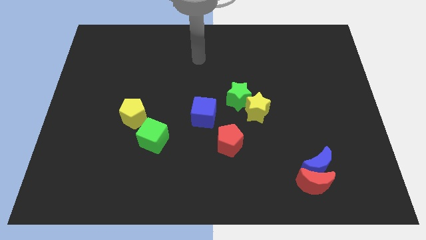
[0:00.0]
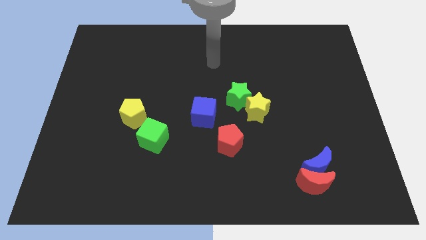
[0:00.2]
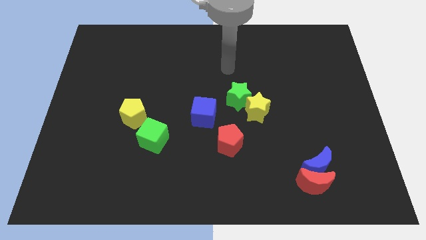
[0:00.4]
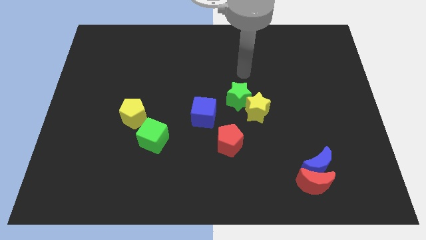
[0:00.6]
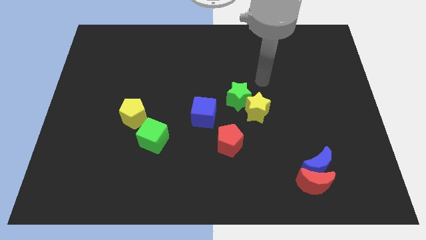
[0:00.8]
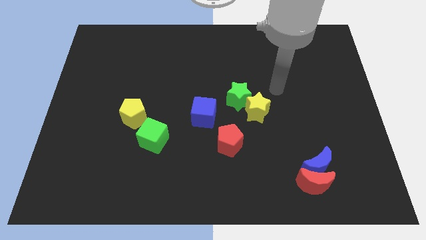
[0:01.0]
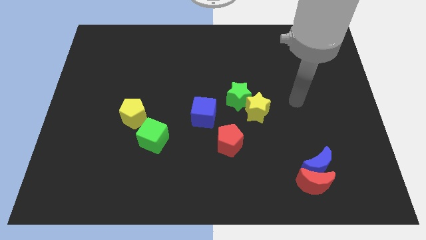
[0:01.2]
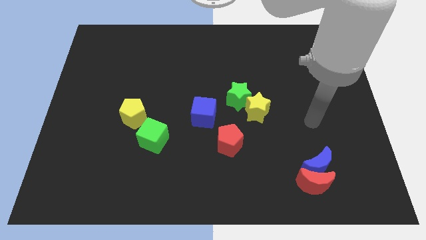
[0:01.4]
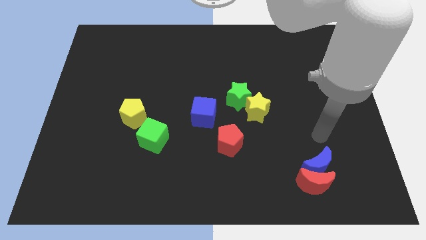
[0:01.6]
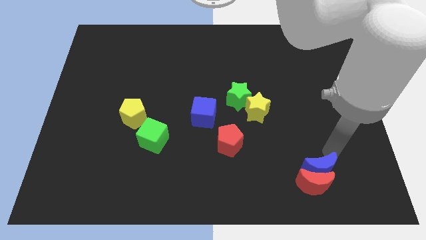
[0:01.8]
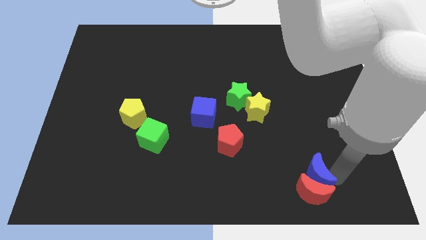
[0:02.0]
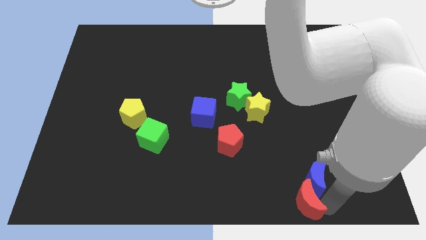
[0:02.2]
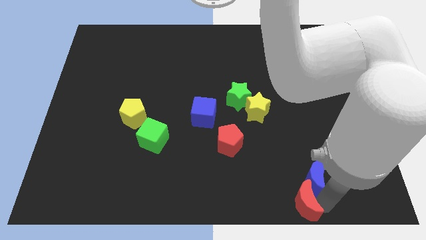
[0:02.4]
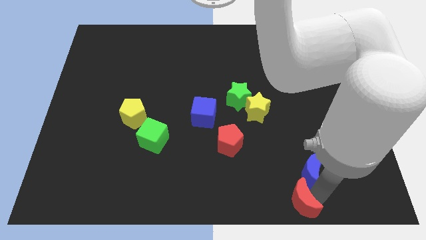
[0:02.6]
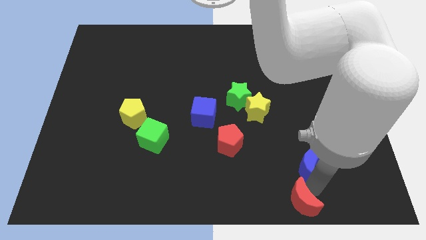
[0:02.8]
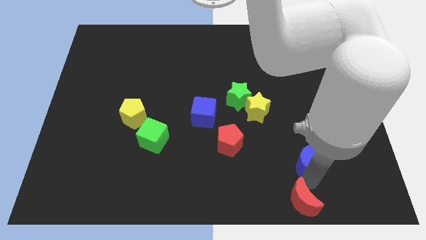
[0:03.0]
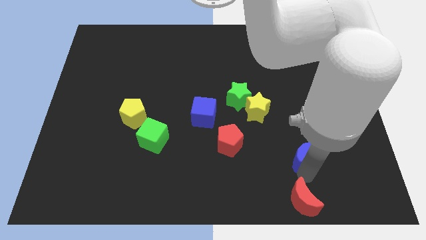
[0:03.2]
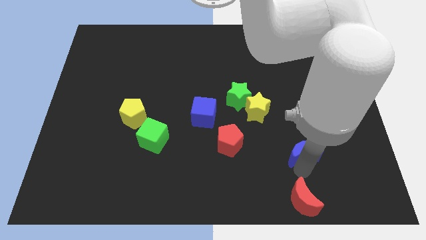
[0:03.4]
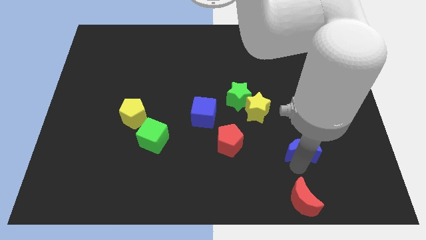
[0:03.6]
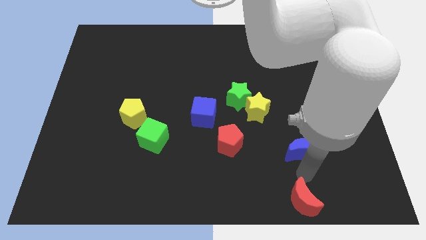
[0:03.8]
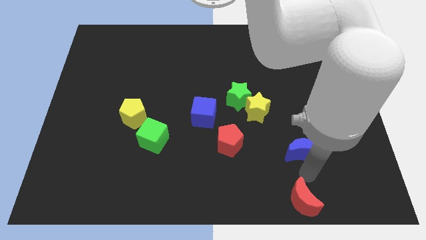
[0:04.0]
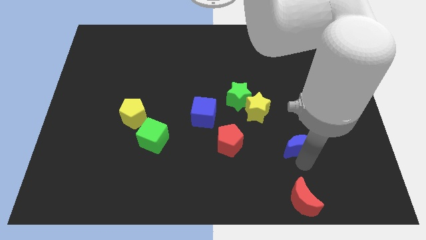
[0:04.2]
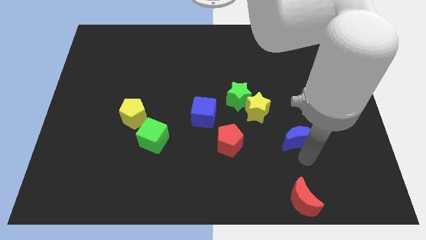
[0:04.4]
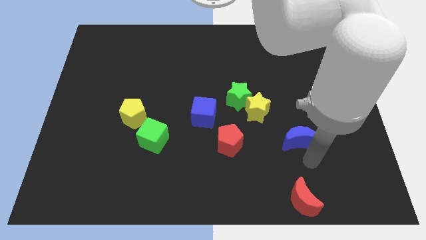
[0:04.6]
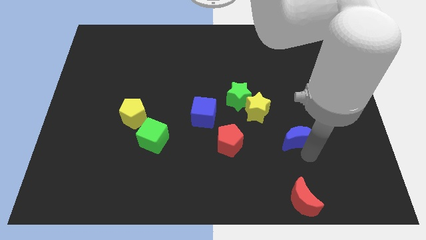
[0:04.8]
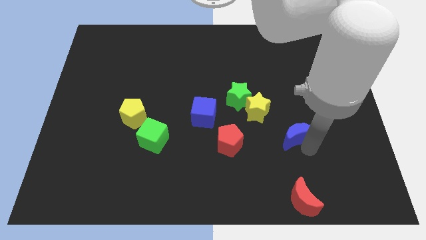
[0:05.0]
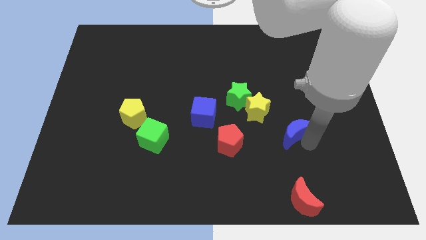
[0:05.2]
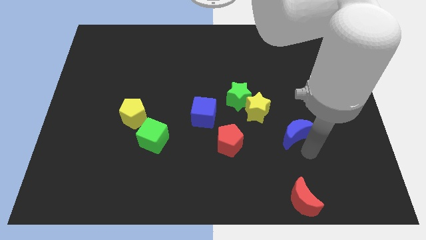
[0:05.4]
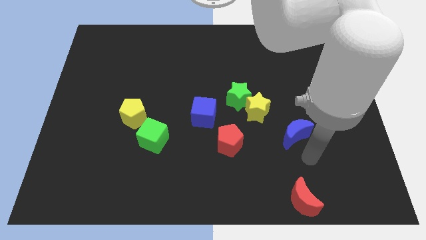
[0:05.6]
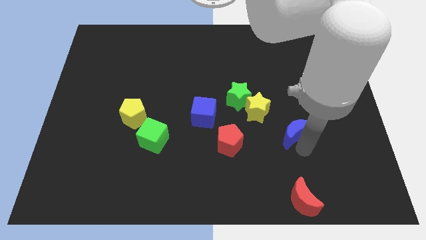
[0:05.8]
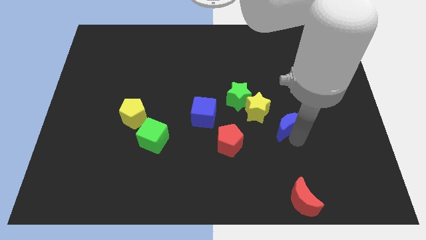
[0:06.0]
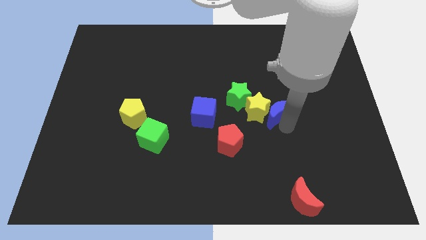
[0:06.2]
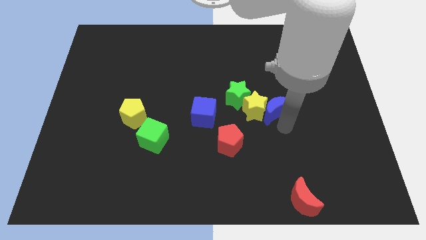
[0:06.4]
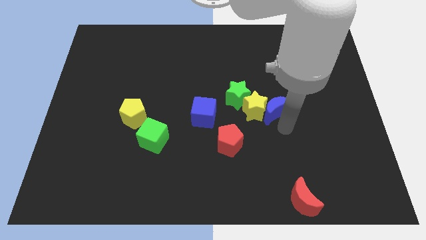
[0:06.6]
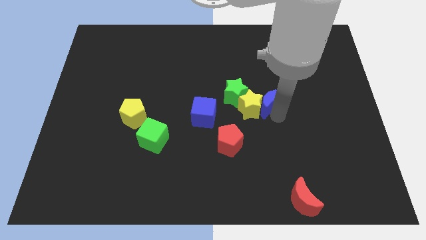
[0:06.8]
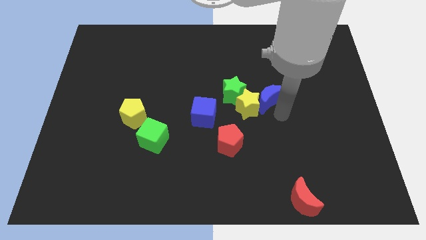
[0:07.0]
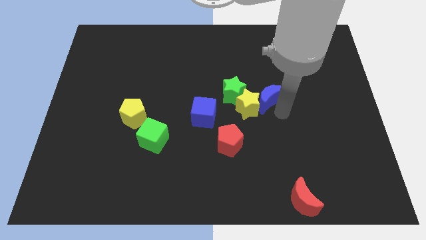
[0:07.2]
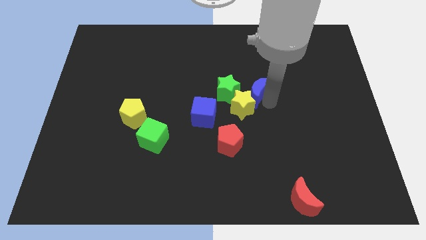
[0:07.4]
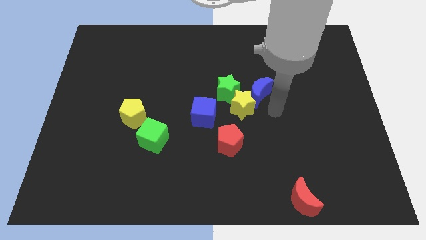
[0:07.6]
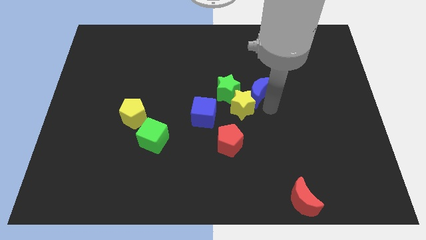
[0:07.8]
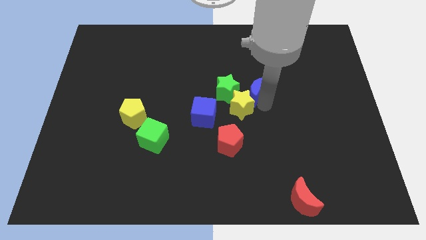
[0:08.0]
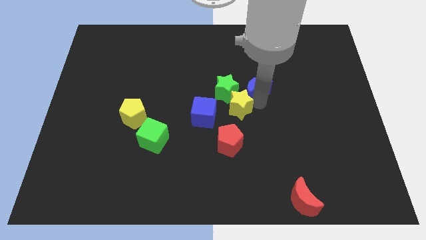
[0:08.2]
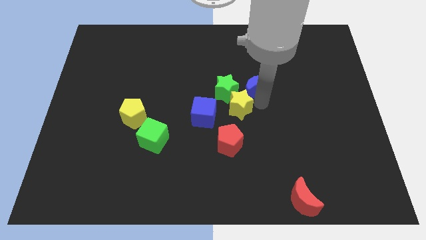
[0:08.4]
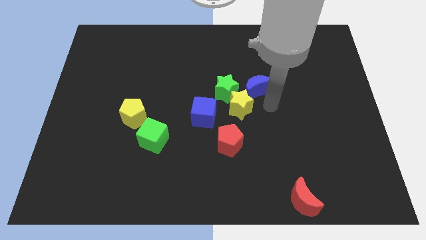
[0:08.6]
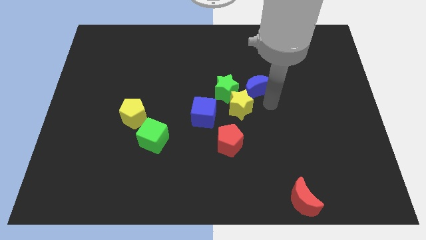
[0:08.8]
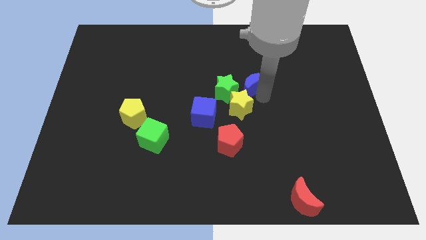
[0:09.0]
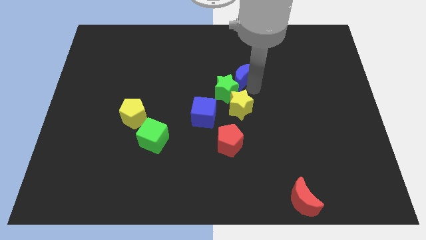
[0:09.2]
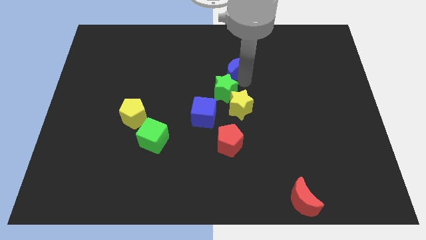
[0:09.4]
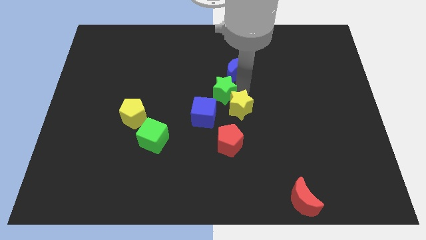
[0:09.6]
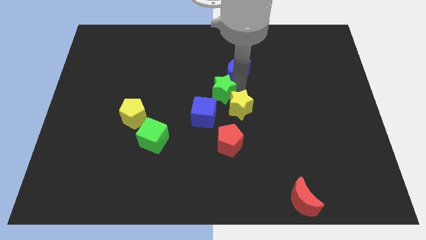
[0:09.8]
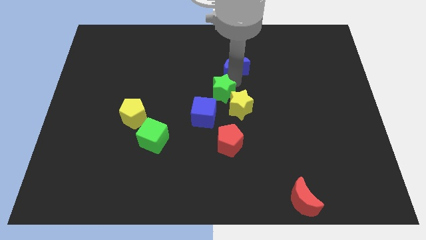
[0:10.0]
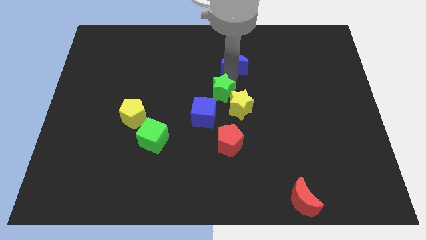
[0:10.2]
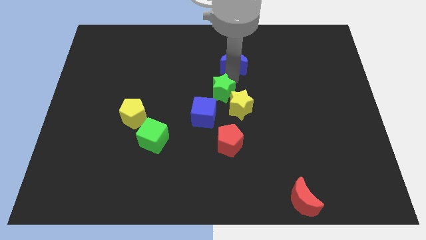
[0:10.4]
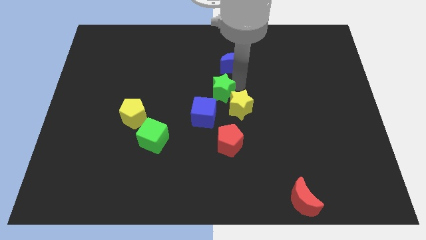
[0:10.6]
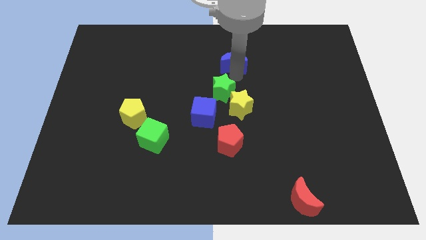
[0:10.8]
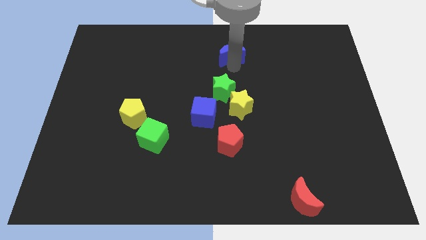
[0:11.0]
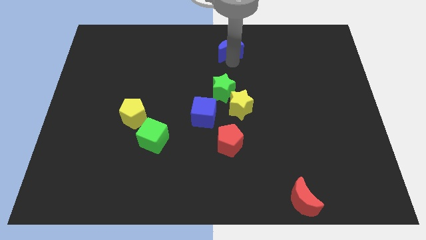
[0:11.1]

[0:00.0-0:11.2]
slide the blue moon to the top side

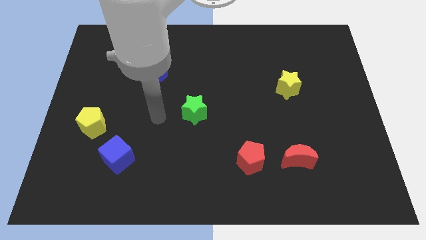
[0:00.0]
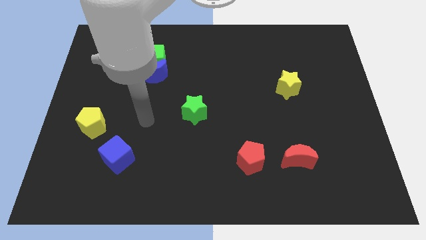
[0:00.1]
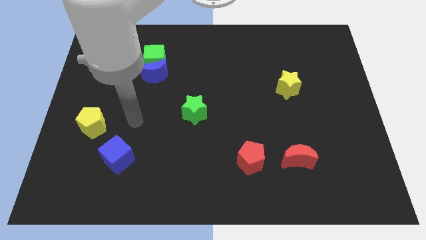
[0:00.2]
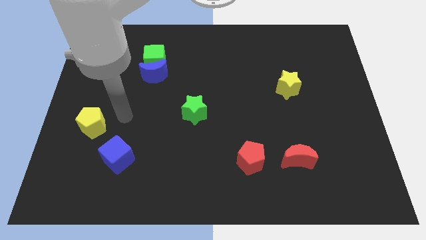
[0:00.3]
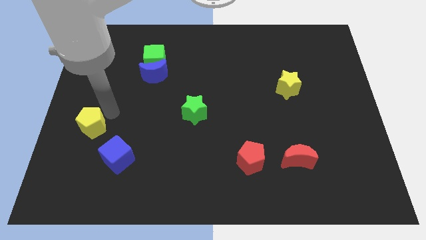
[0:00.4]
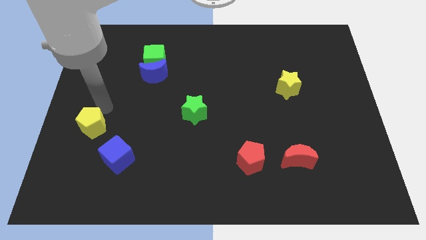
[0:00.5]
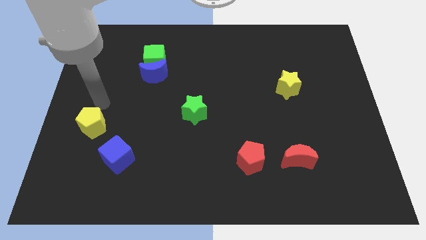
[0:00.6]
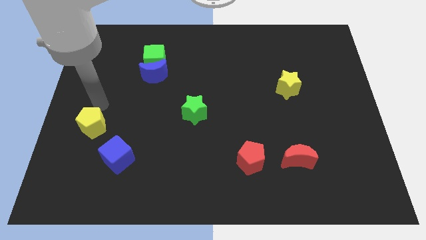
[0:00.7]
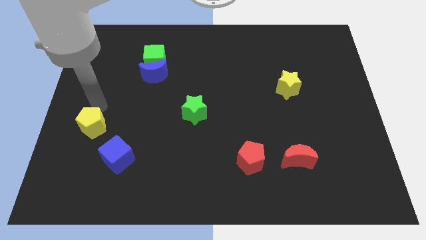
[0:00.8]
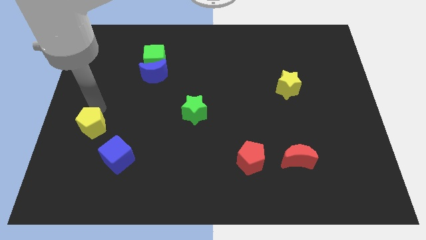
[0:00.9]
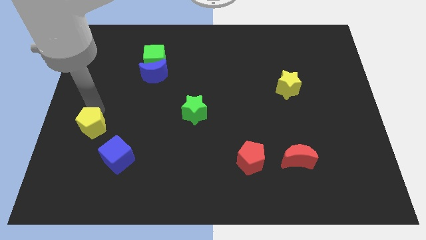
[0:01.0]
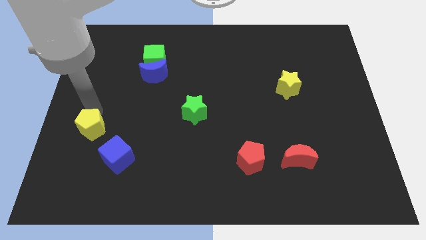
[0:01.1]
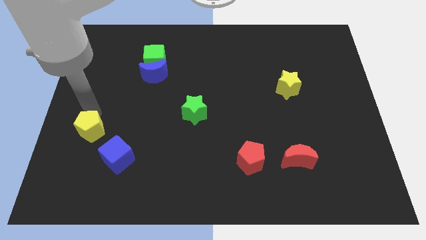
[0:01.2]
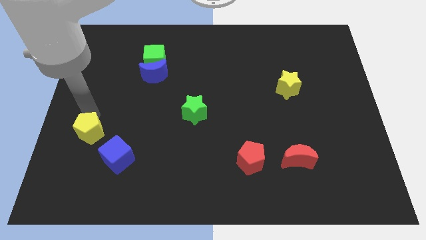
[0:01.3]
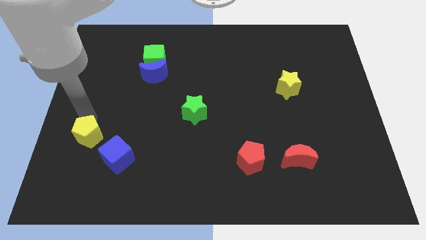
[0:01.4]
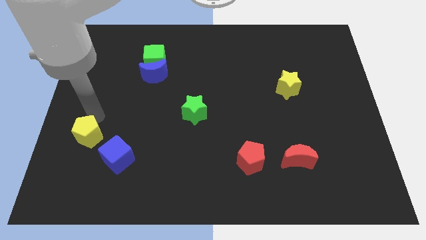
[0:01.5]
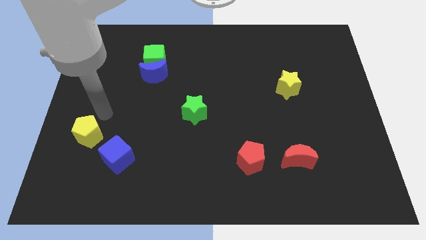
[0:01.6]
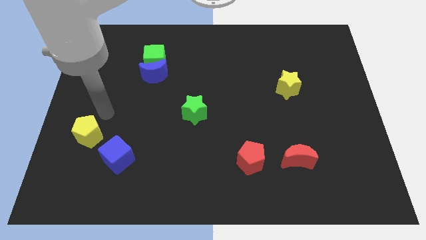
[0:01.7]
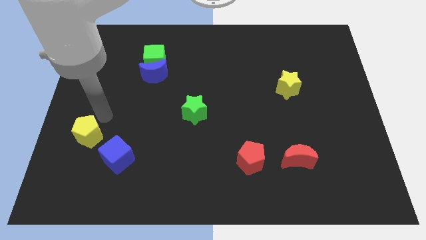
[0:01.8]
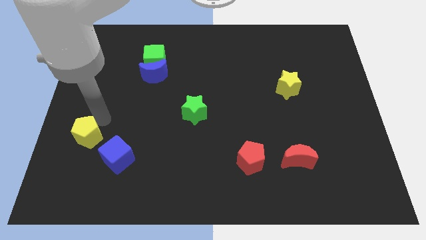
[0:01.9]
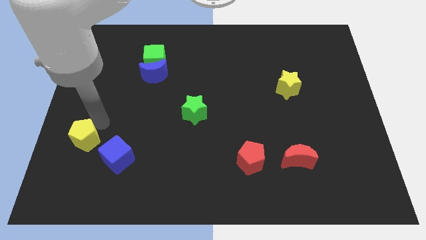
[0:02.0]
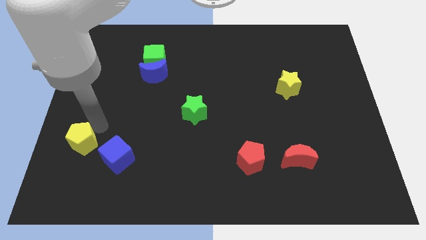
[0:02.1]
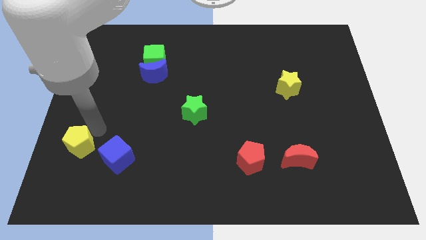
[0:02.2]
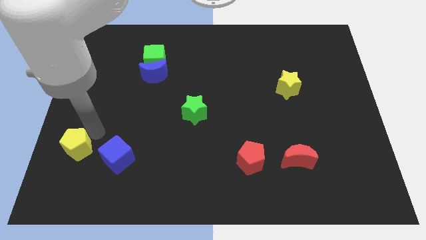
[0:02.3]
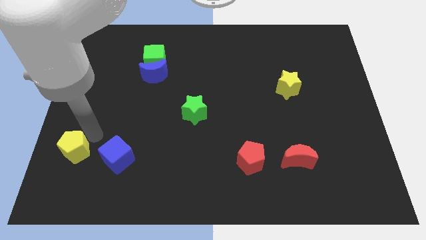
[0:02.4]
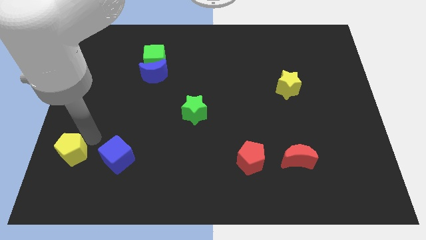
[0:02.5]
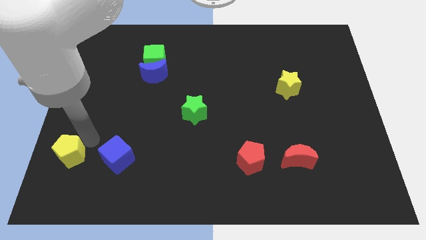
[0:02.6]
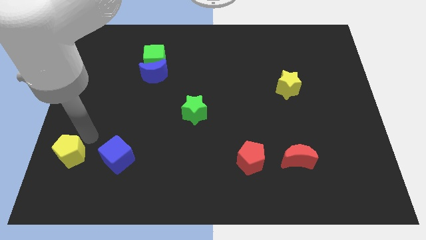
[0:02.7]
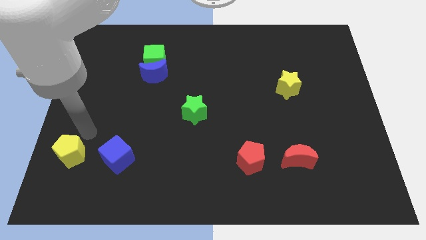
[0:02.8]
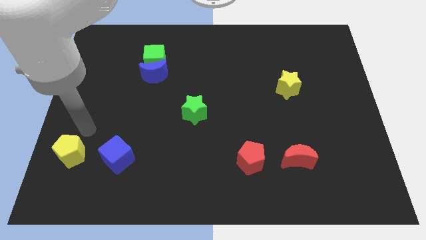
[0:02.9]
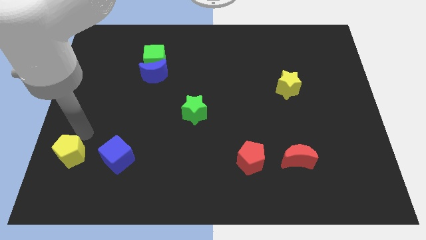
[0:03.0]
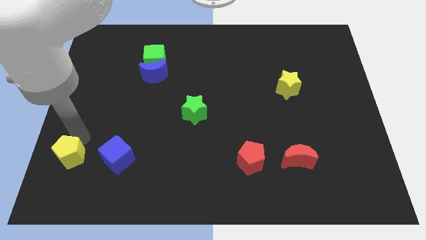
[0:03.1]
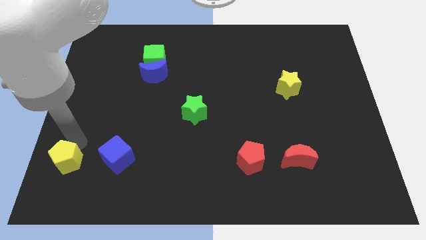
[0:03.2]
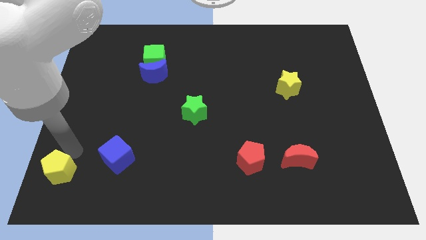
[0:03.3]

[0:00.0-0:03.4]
push the yellow pentagon to the bottom left of the board
